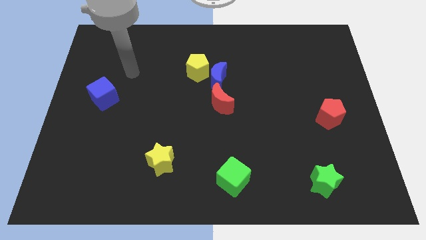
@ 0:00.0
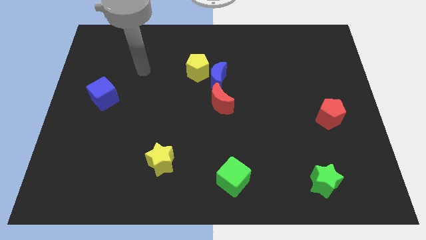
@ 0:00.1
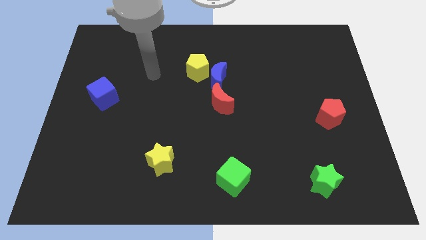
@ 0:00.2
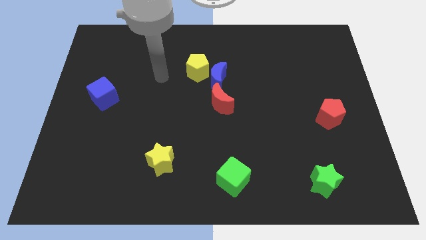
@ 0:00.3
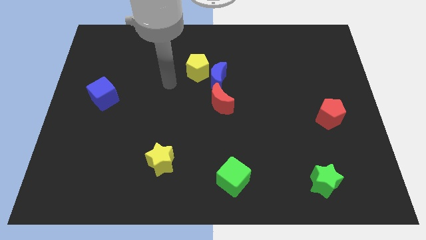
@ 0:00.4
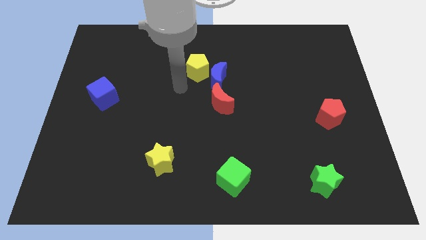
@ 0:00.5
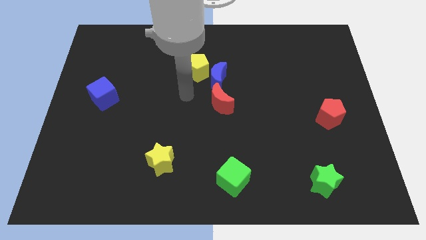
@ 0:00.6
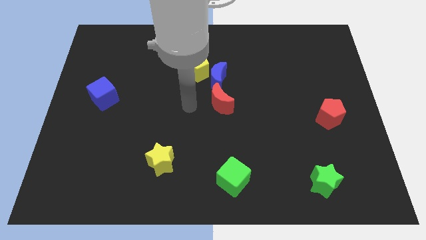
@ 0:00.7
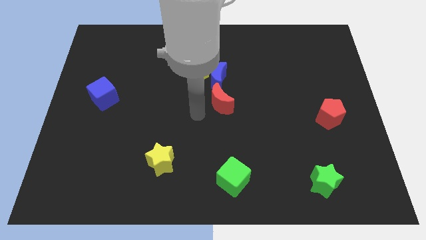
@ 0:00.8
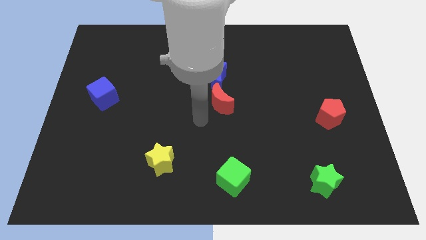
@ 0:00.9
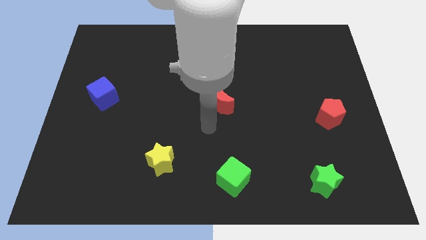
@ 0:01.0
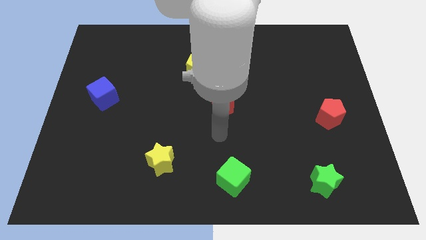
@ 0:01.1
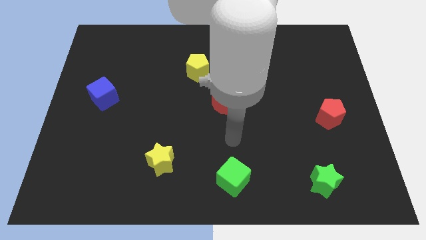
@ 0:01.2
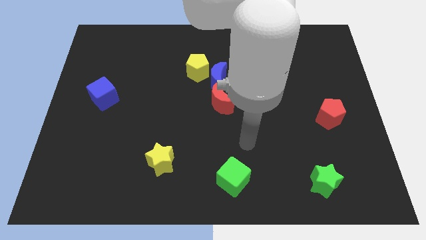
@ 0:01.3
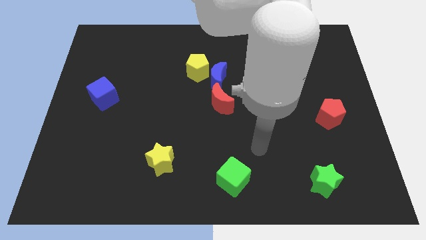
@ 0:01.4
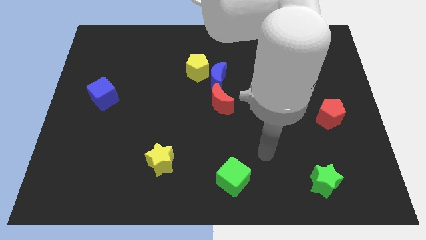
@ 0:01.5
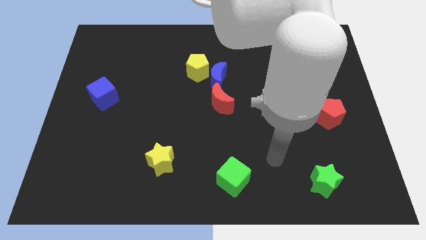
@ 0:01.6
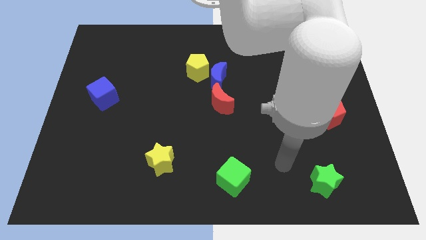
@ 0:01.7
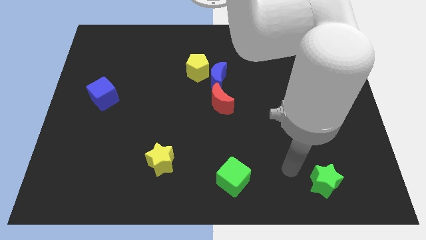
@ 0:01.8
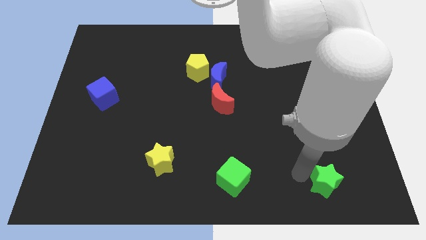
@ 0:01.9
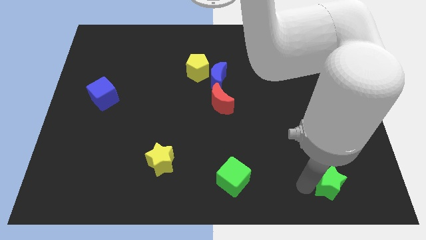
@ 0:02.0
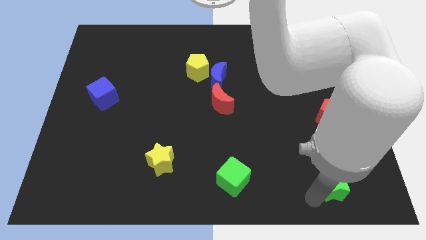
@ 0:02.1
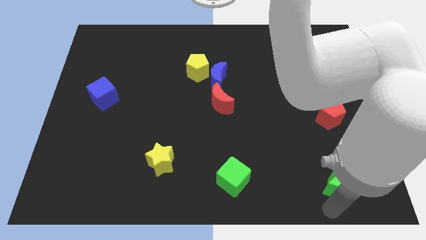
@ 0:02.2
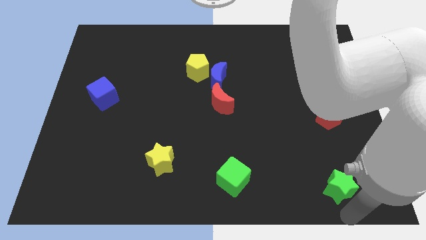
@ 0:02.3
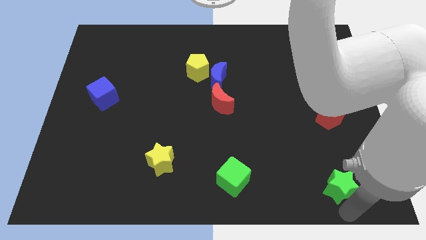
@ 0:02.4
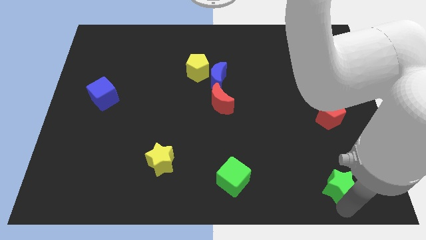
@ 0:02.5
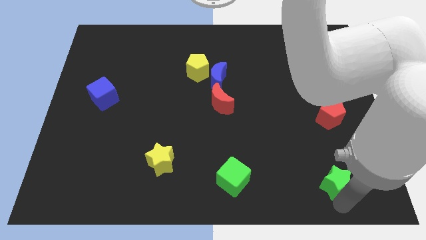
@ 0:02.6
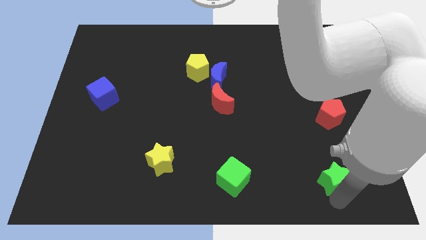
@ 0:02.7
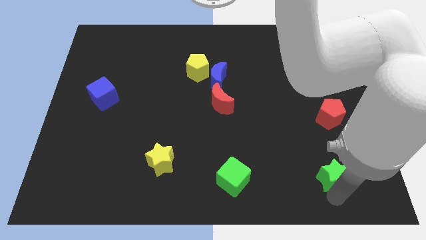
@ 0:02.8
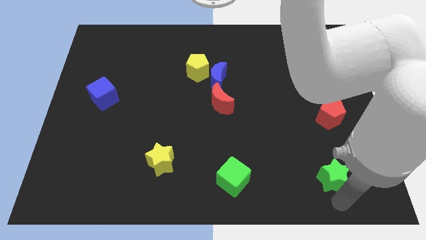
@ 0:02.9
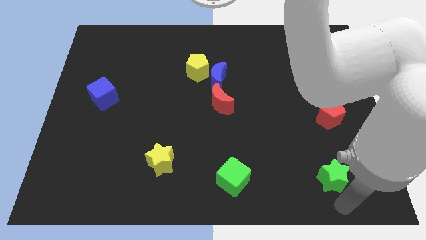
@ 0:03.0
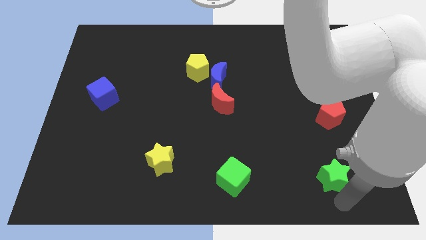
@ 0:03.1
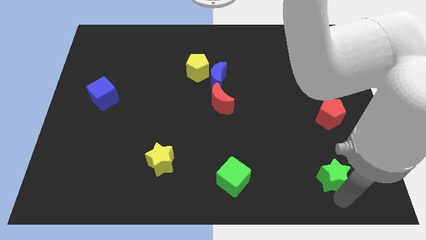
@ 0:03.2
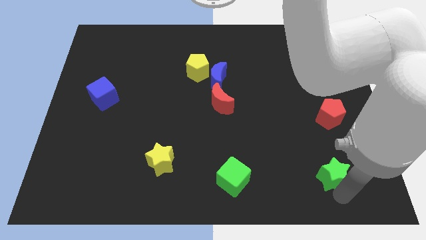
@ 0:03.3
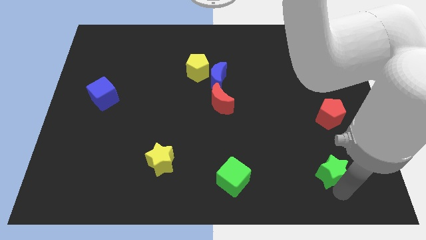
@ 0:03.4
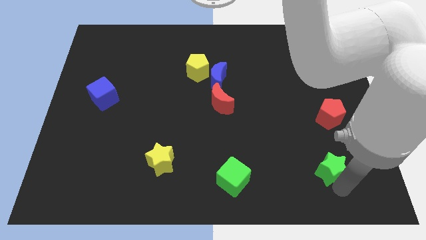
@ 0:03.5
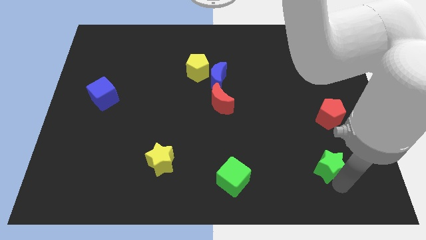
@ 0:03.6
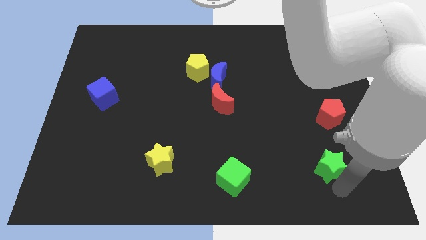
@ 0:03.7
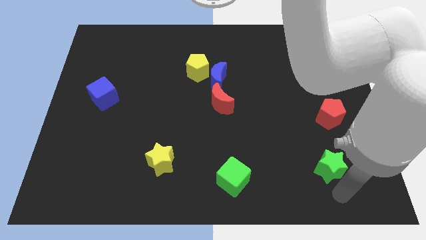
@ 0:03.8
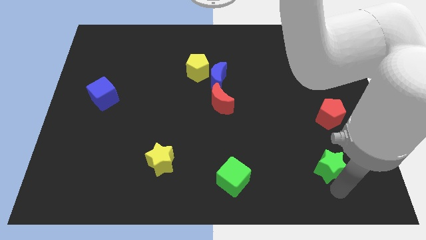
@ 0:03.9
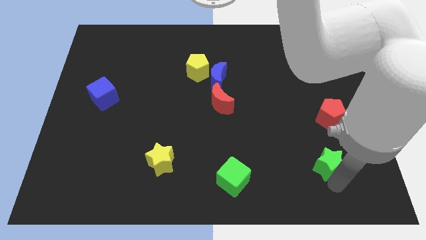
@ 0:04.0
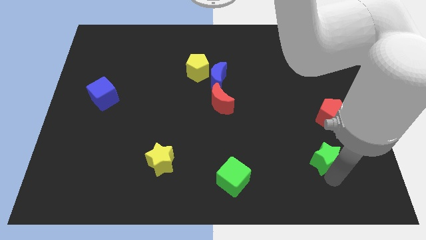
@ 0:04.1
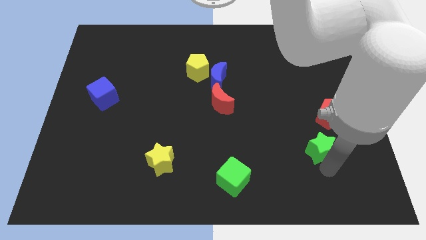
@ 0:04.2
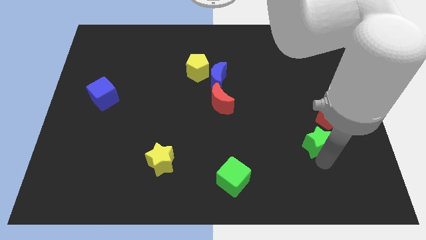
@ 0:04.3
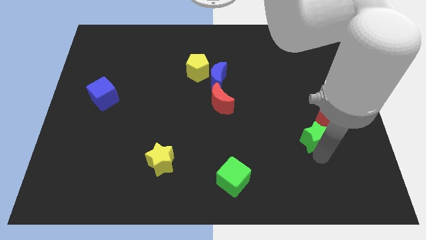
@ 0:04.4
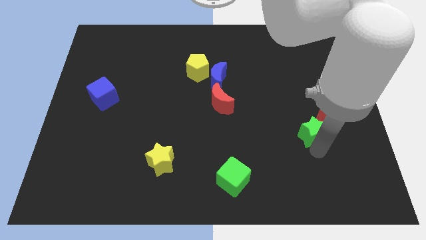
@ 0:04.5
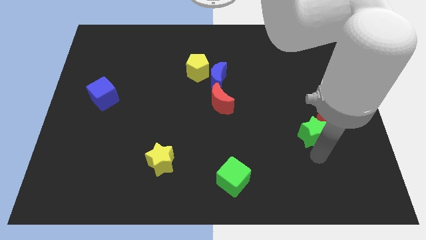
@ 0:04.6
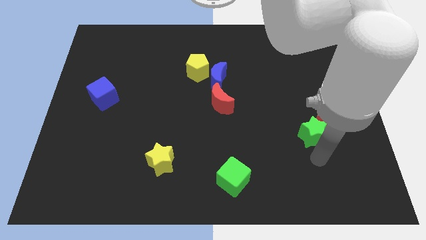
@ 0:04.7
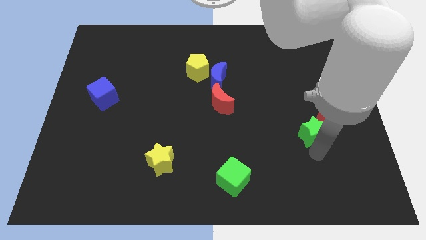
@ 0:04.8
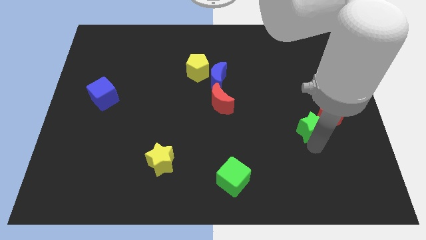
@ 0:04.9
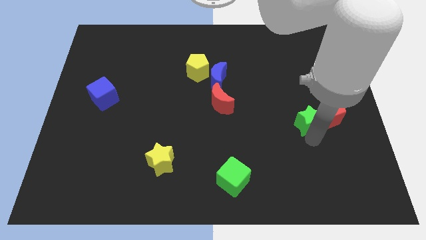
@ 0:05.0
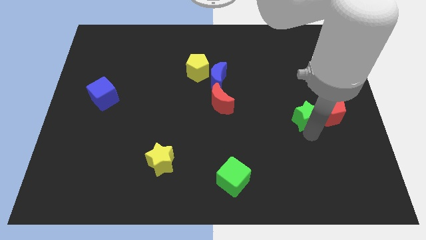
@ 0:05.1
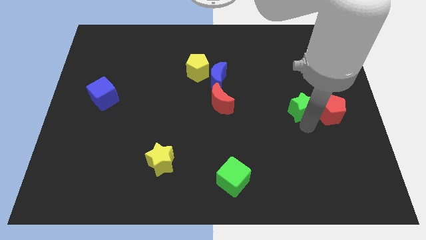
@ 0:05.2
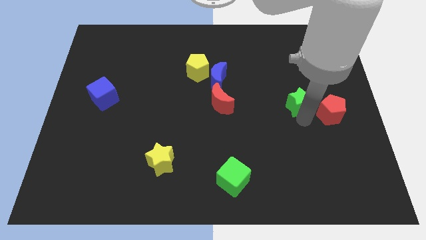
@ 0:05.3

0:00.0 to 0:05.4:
slide the green star upwards

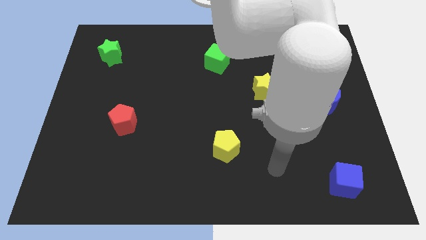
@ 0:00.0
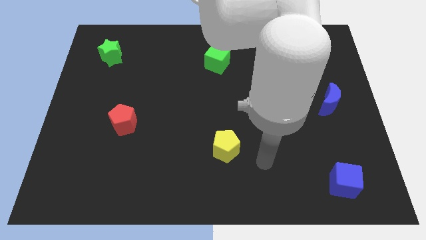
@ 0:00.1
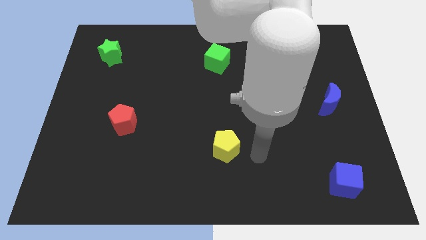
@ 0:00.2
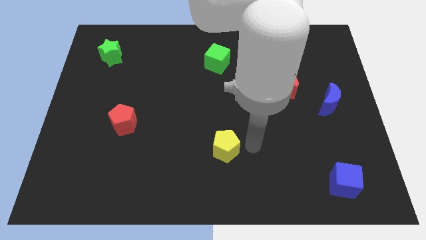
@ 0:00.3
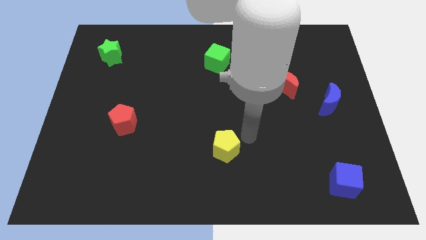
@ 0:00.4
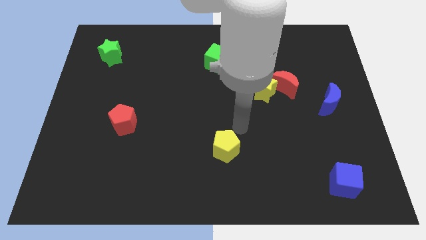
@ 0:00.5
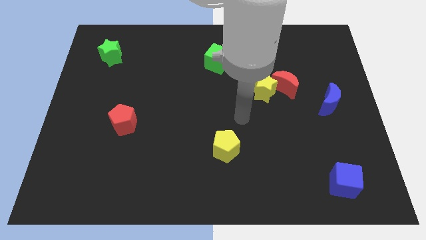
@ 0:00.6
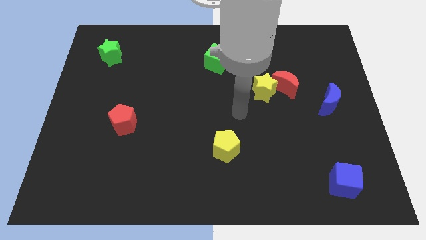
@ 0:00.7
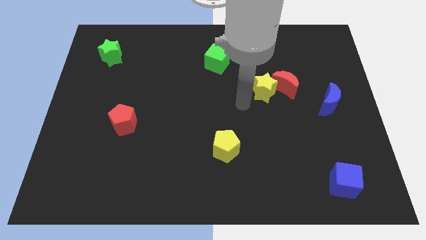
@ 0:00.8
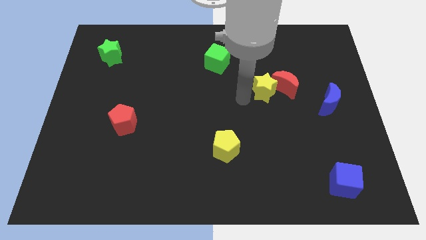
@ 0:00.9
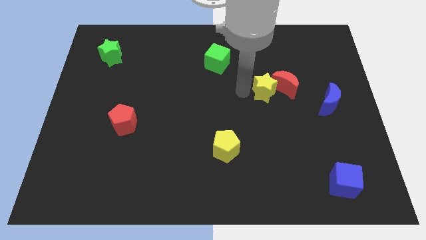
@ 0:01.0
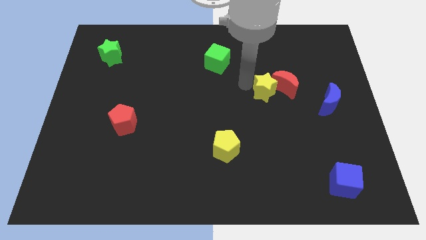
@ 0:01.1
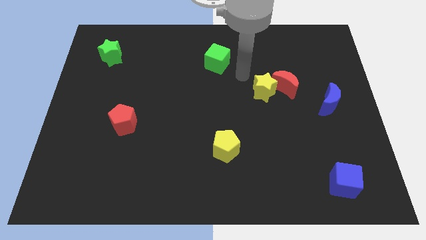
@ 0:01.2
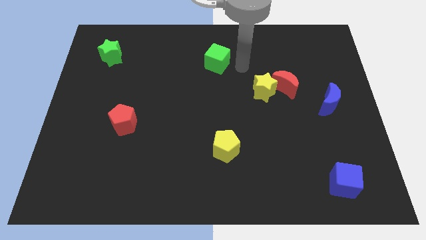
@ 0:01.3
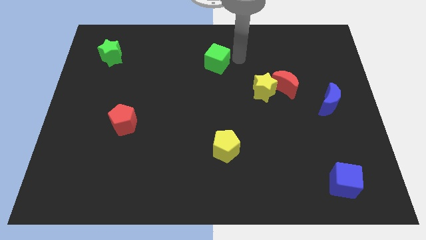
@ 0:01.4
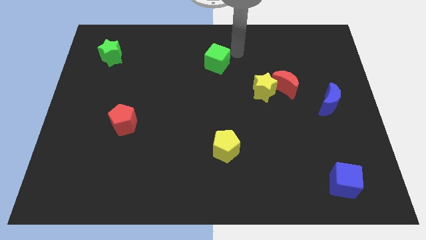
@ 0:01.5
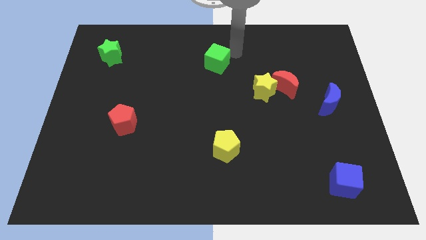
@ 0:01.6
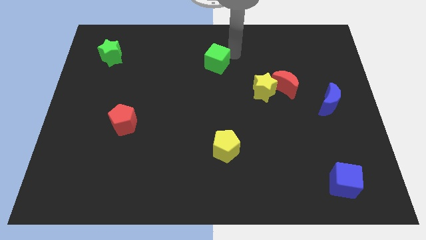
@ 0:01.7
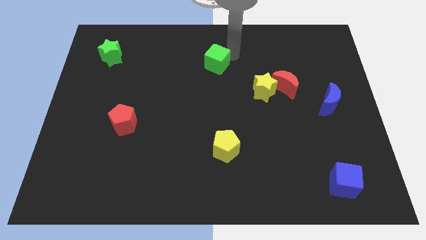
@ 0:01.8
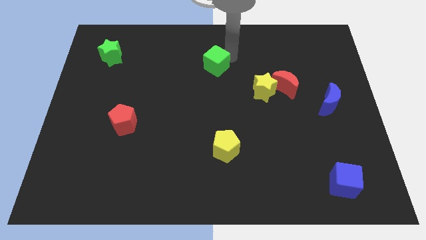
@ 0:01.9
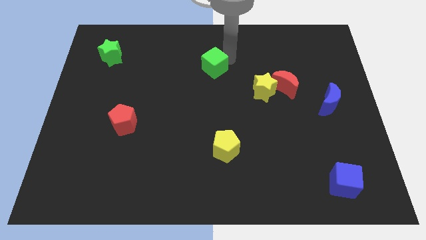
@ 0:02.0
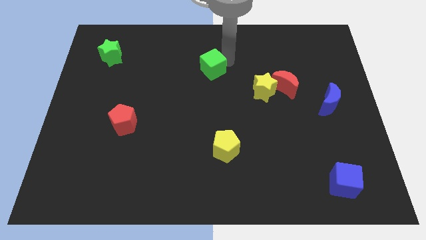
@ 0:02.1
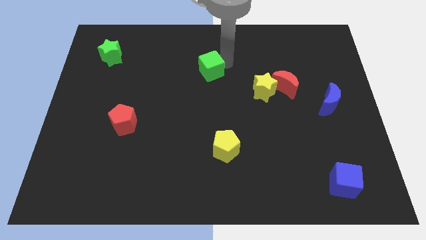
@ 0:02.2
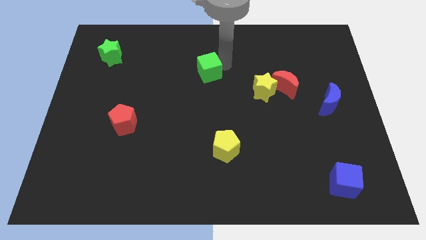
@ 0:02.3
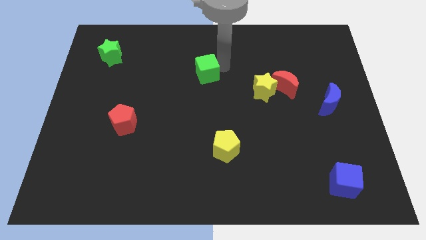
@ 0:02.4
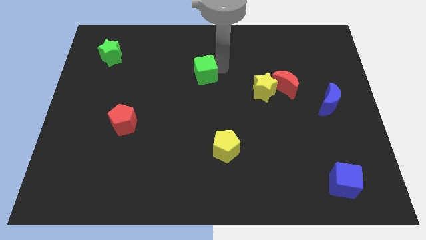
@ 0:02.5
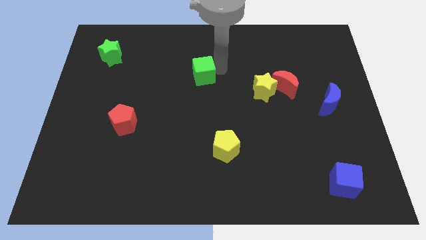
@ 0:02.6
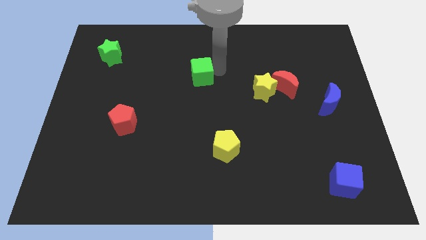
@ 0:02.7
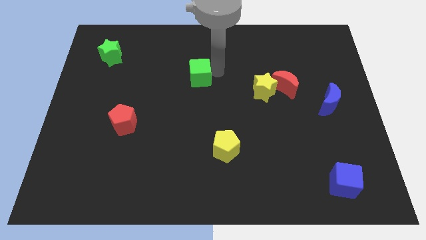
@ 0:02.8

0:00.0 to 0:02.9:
slightly slide the green cube diagonally down and left
